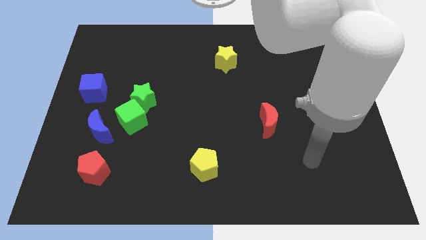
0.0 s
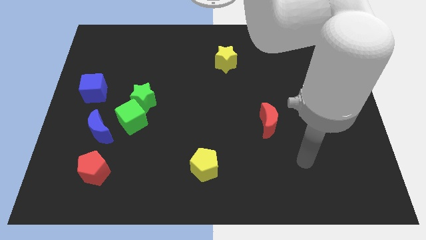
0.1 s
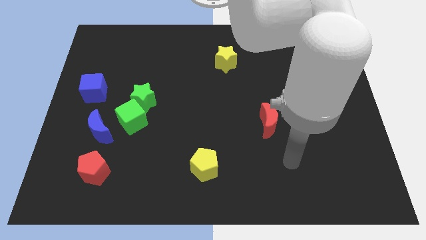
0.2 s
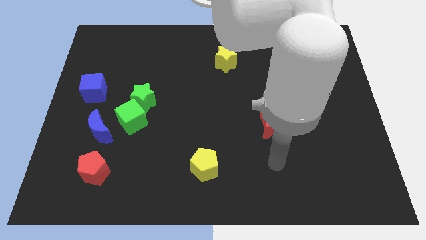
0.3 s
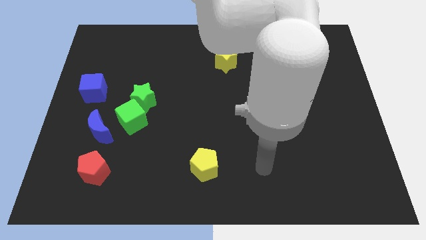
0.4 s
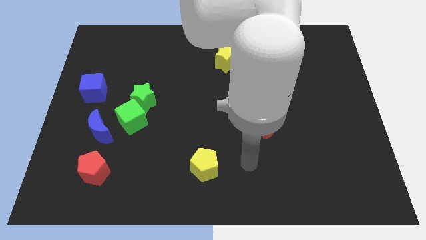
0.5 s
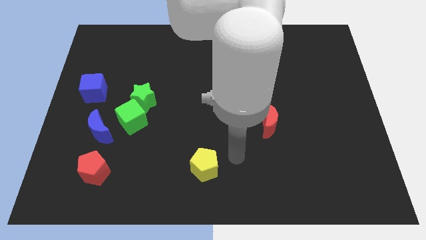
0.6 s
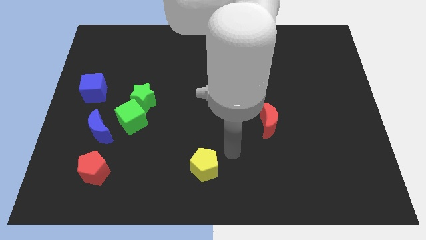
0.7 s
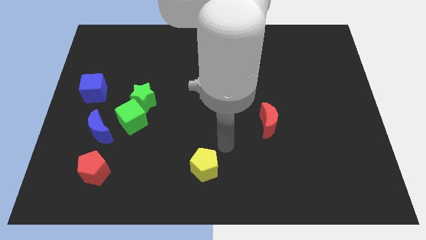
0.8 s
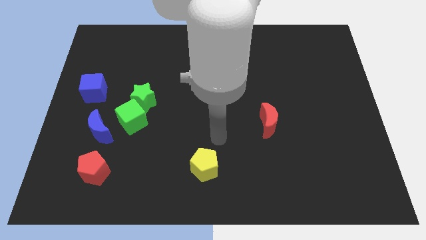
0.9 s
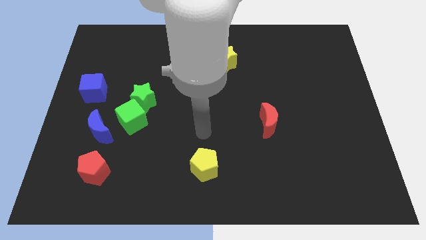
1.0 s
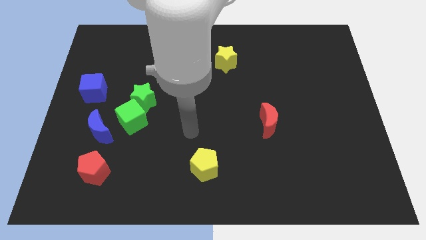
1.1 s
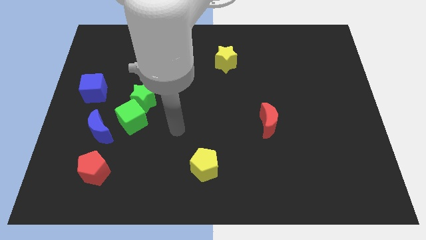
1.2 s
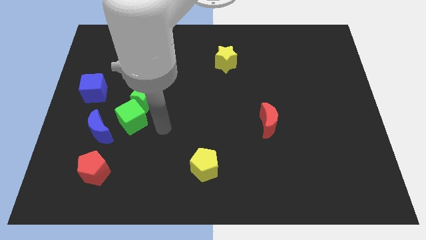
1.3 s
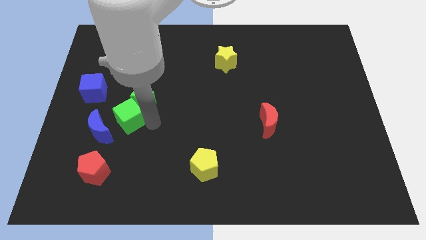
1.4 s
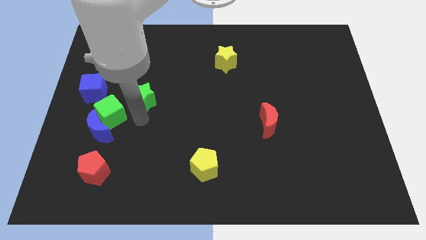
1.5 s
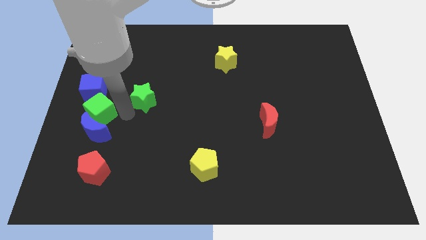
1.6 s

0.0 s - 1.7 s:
pull the green star apart from the green cube

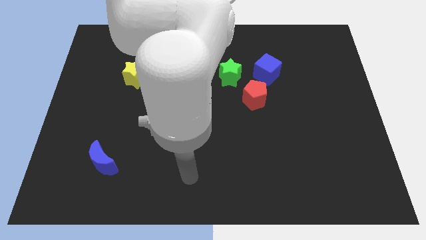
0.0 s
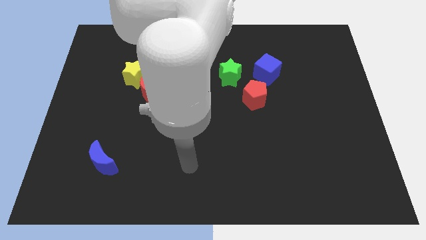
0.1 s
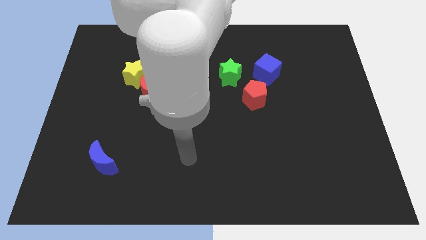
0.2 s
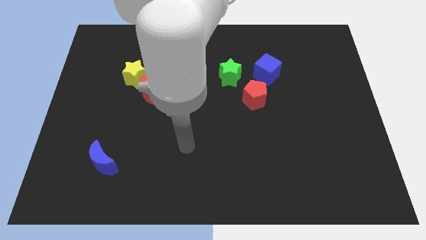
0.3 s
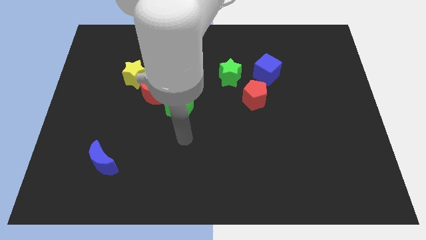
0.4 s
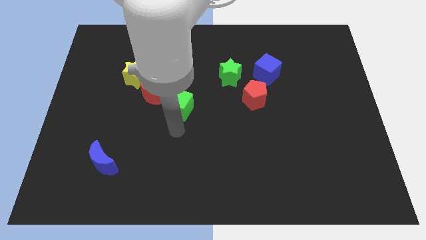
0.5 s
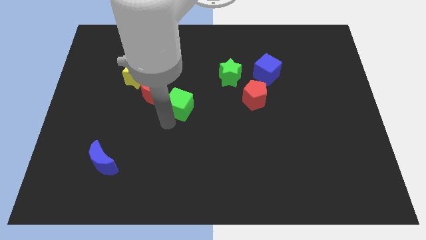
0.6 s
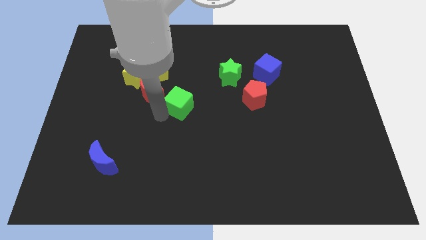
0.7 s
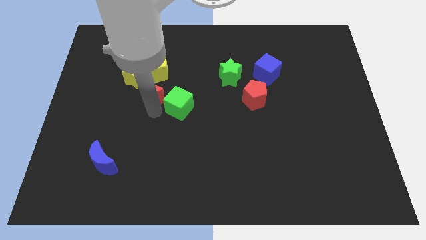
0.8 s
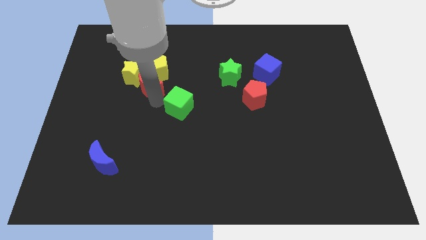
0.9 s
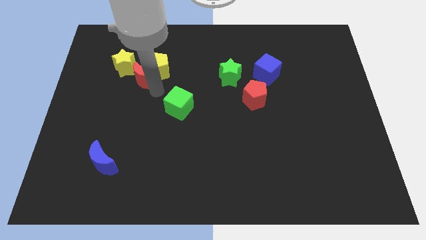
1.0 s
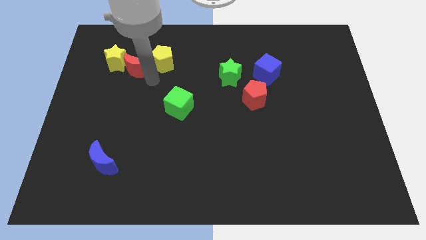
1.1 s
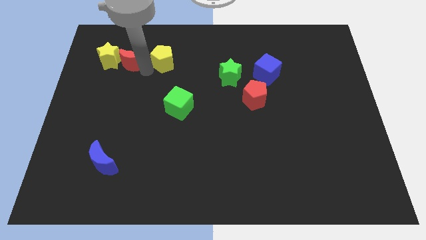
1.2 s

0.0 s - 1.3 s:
pull the yellow star apart from the yellow pentagon and red moon

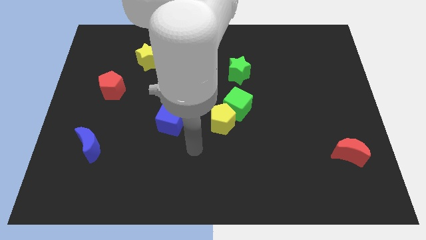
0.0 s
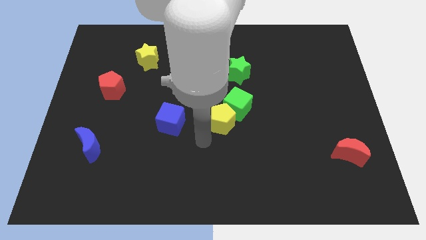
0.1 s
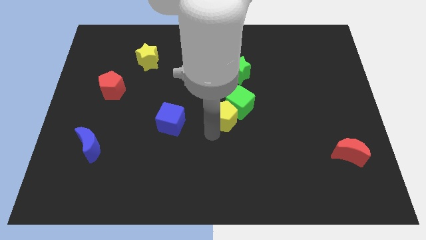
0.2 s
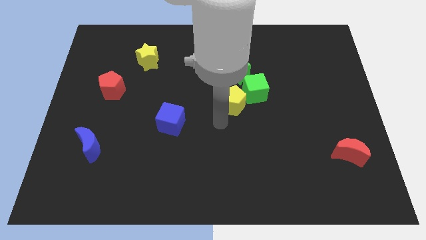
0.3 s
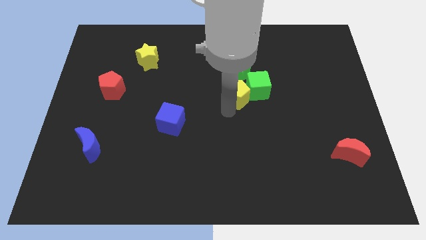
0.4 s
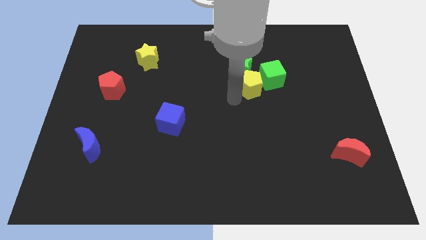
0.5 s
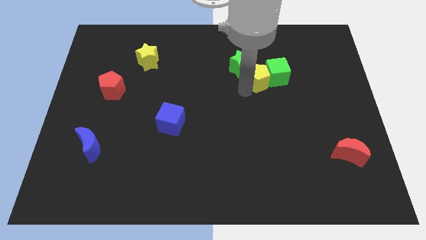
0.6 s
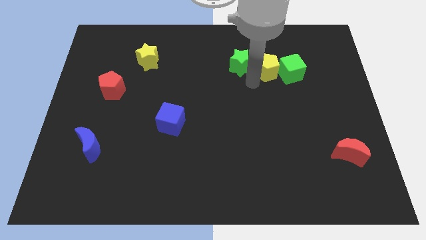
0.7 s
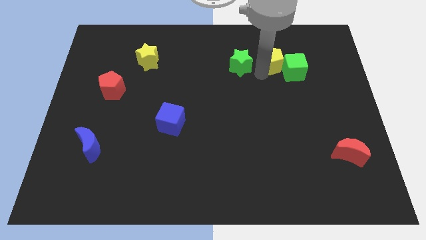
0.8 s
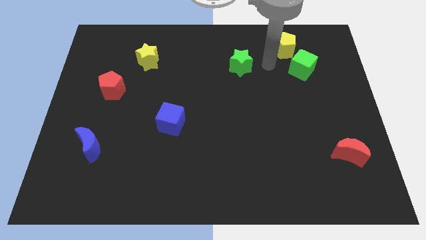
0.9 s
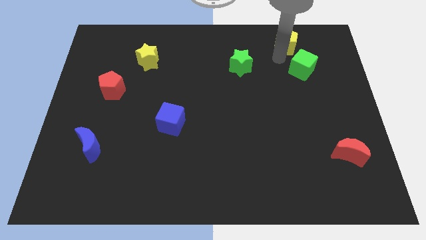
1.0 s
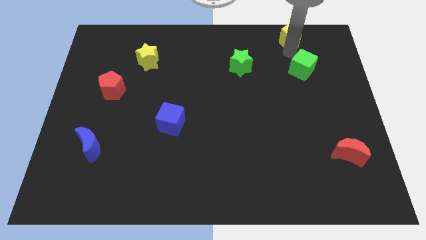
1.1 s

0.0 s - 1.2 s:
pull the green cube apart from the yellow pentagon

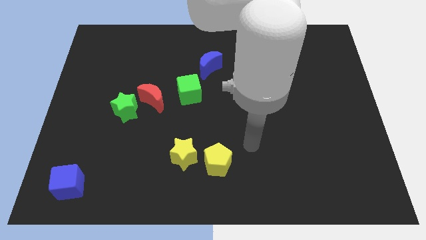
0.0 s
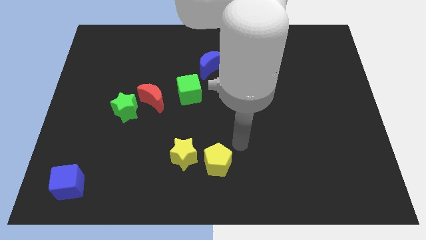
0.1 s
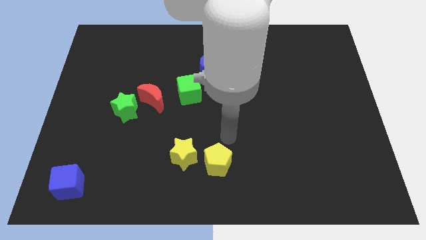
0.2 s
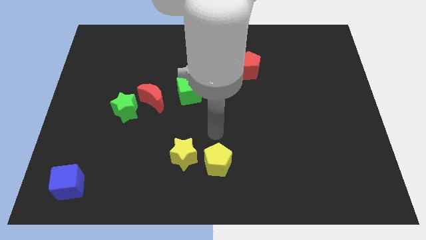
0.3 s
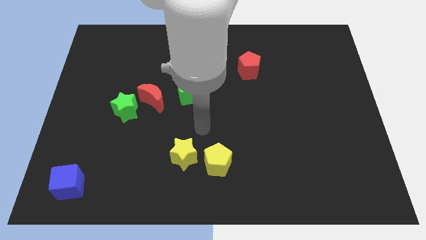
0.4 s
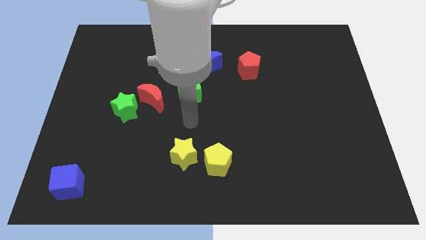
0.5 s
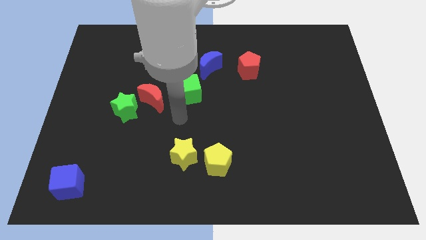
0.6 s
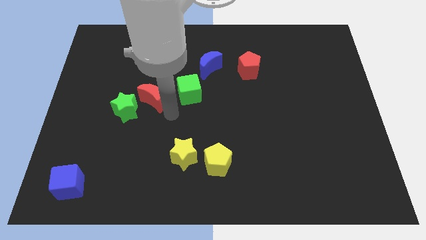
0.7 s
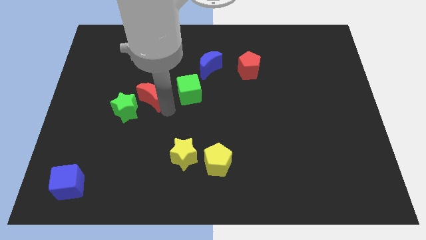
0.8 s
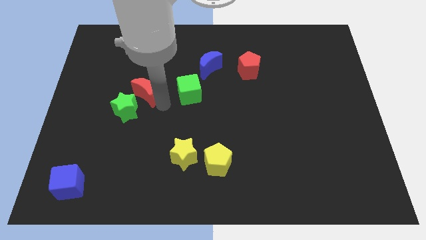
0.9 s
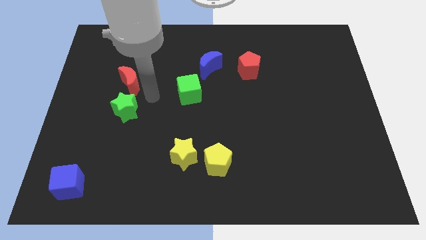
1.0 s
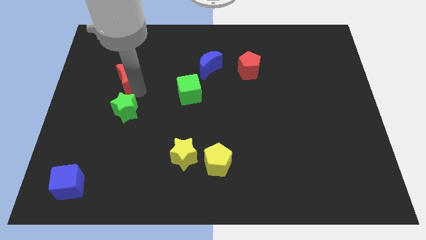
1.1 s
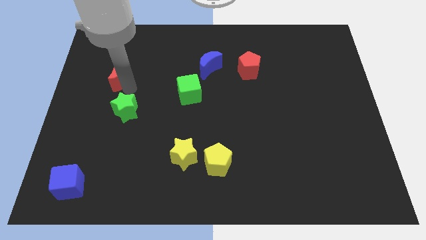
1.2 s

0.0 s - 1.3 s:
separate the green star from the red moon

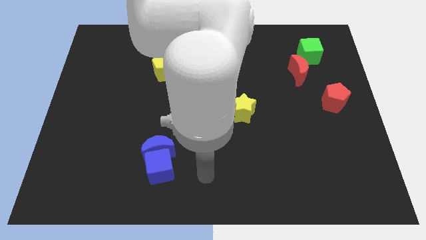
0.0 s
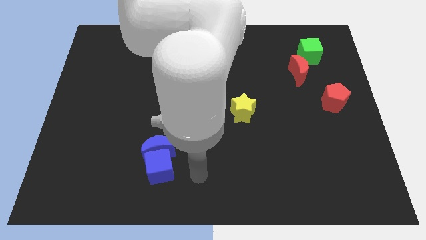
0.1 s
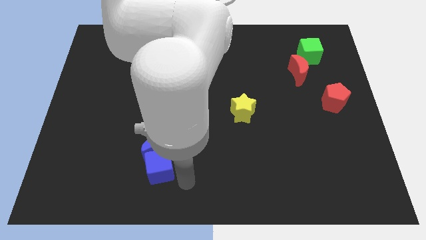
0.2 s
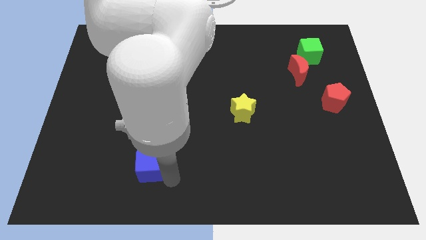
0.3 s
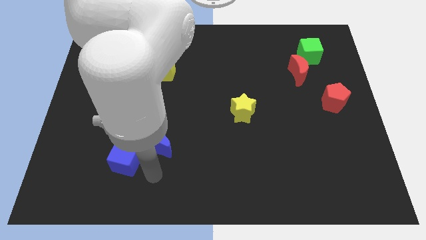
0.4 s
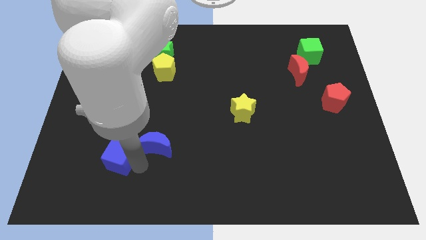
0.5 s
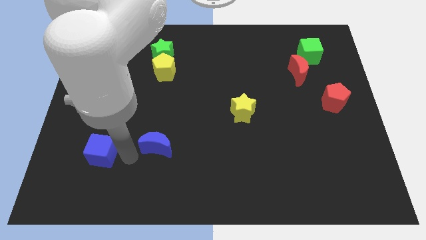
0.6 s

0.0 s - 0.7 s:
separate the blue moon from the blue cube

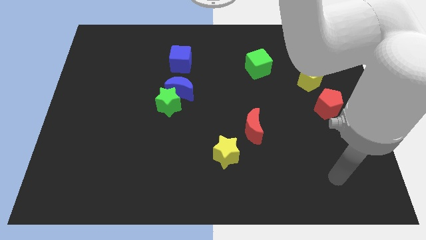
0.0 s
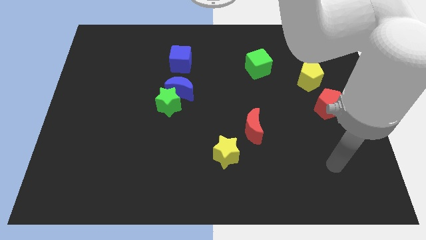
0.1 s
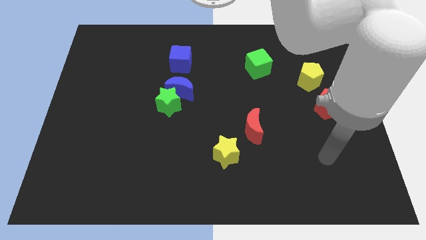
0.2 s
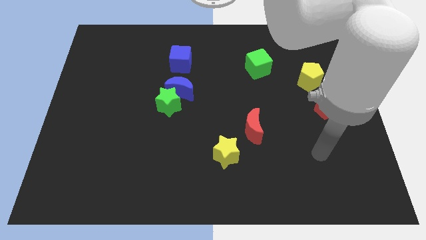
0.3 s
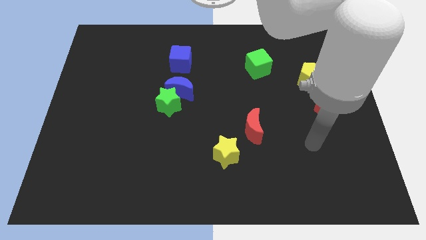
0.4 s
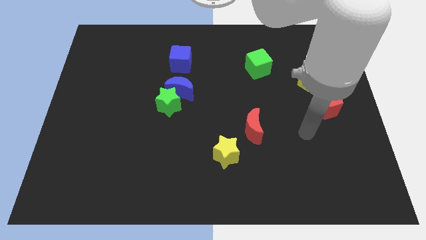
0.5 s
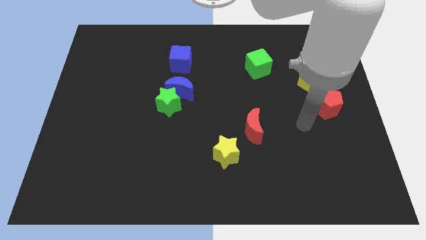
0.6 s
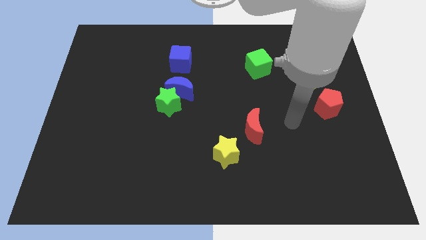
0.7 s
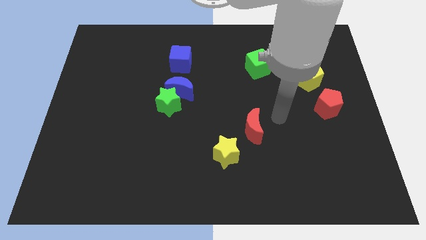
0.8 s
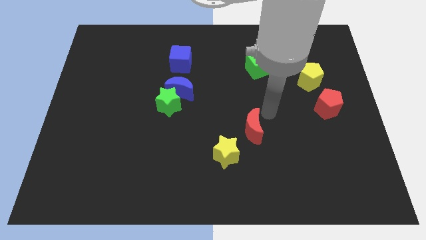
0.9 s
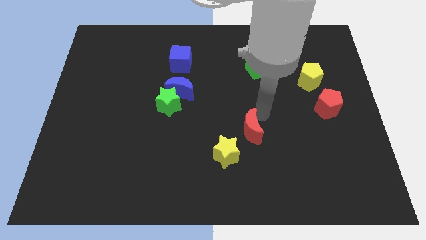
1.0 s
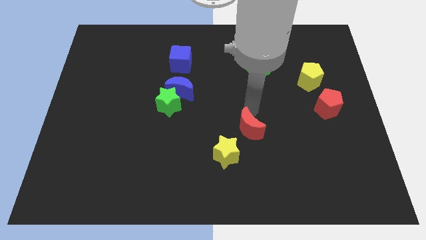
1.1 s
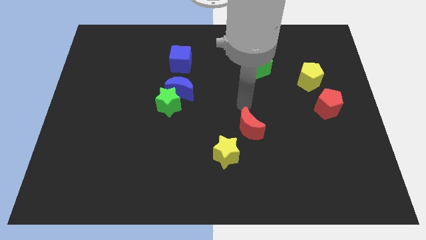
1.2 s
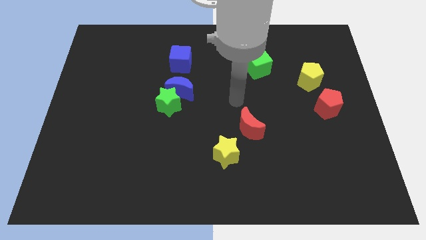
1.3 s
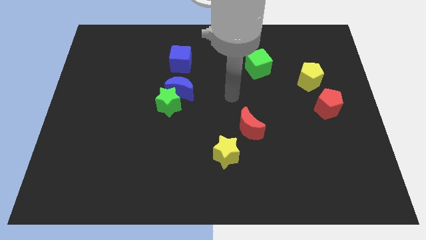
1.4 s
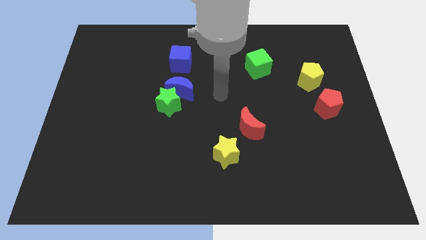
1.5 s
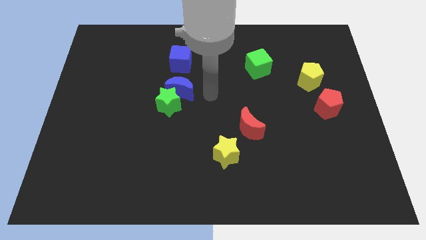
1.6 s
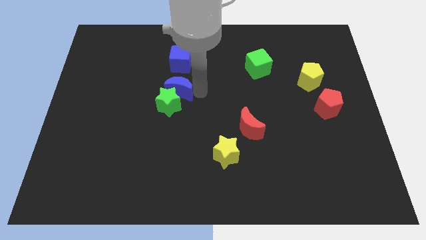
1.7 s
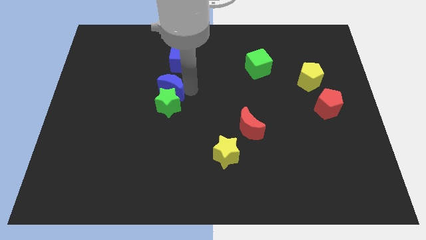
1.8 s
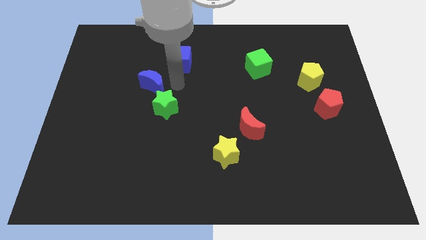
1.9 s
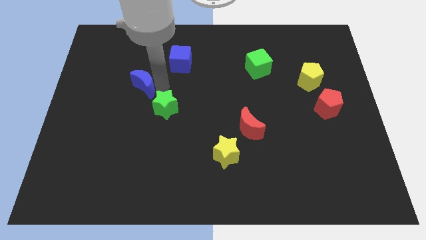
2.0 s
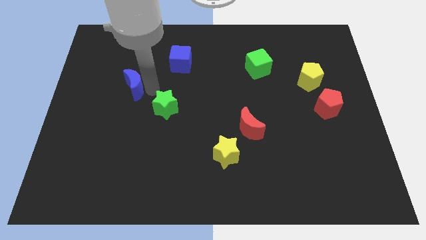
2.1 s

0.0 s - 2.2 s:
move the green star away from the blue moon

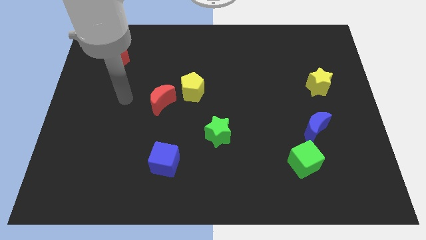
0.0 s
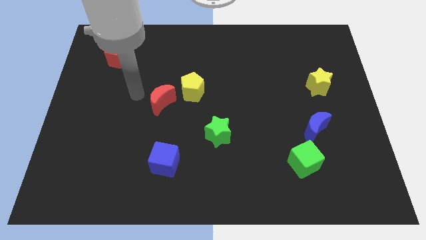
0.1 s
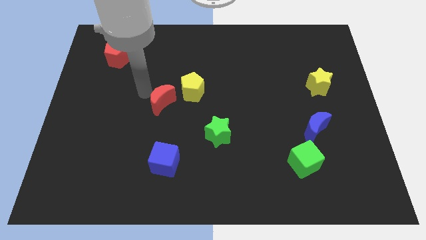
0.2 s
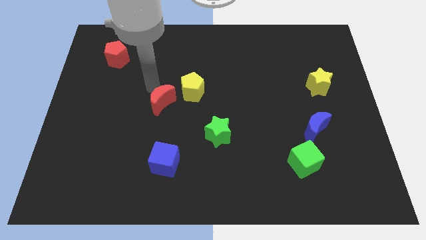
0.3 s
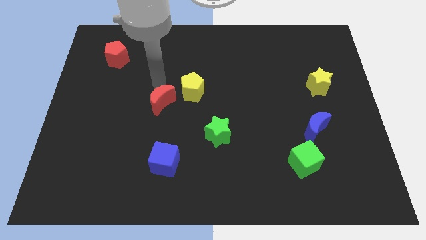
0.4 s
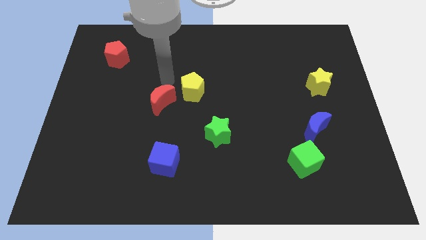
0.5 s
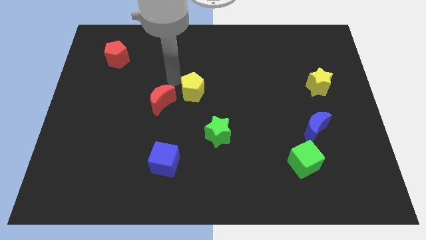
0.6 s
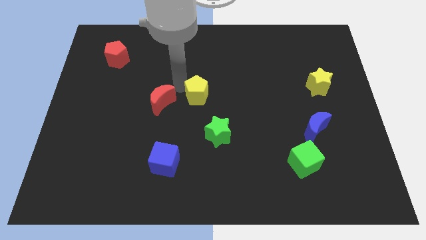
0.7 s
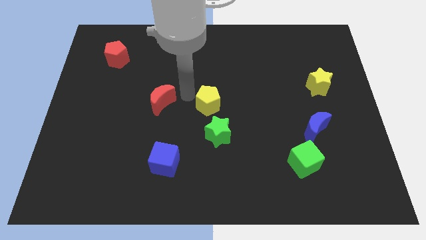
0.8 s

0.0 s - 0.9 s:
pull the red moon apart from the yellow pentagon
